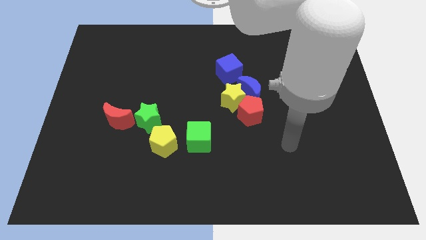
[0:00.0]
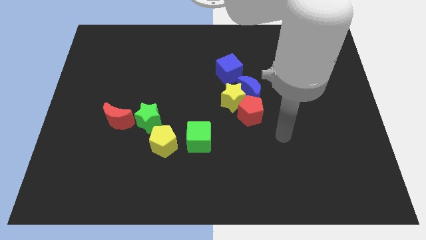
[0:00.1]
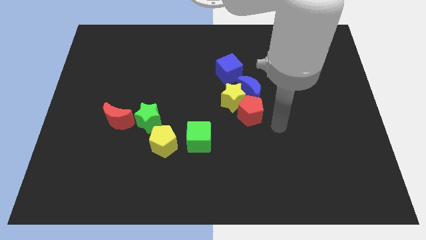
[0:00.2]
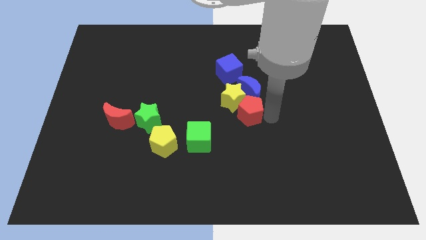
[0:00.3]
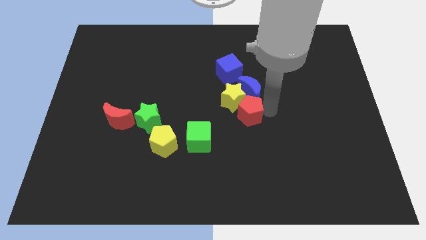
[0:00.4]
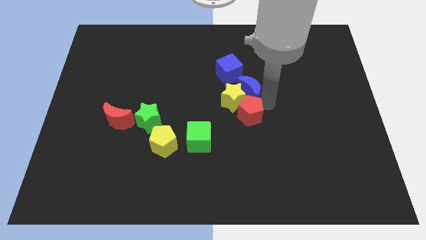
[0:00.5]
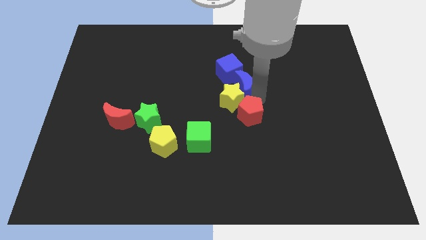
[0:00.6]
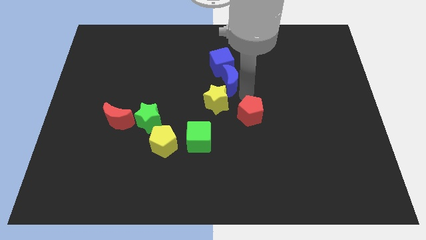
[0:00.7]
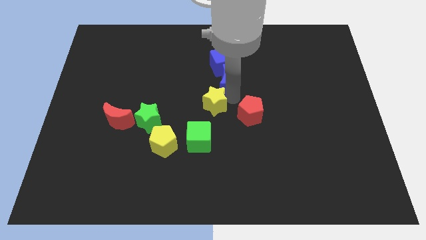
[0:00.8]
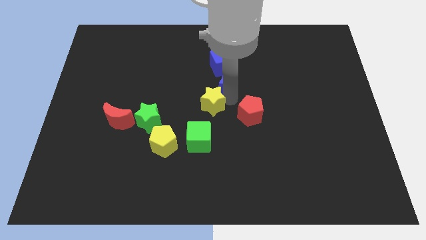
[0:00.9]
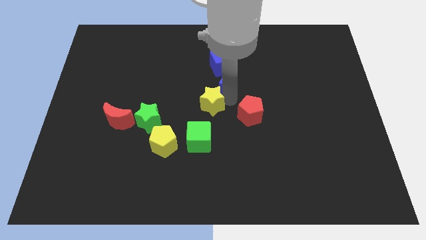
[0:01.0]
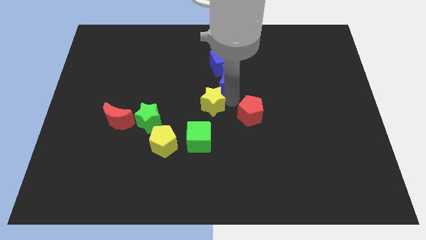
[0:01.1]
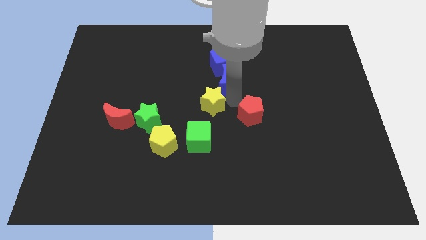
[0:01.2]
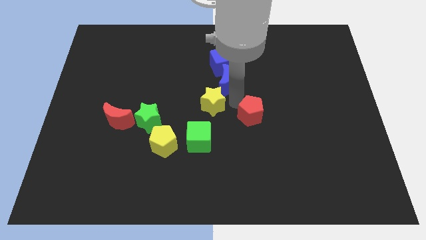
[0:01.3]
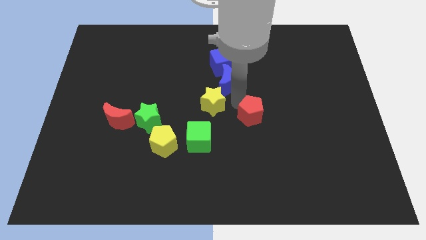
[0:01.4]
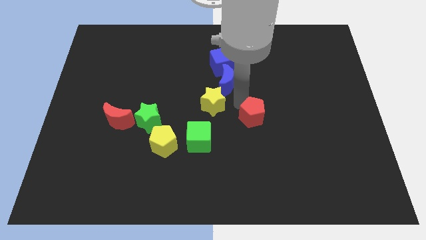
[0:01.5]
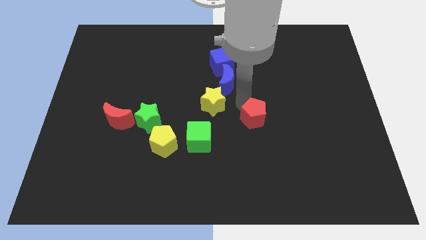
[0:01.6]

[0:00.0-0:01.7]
move the red pentagon away from the yellow star and blue moon

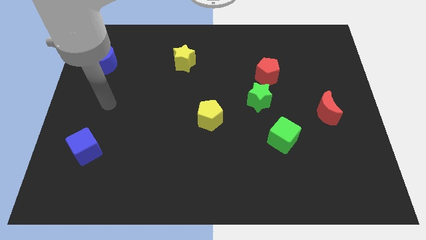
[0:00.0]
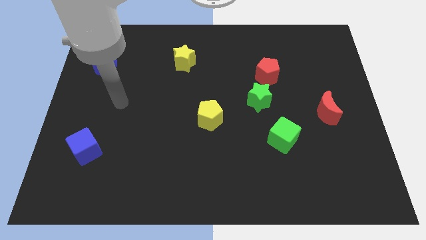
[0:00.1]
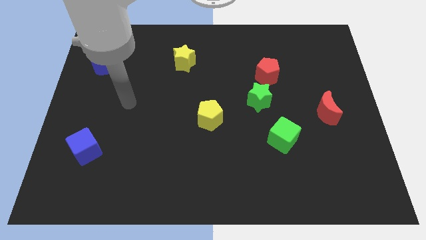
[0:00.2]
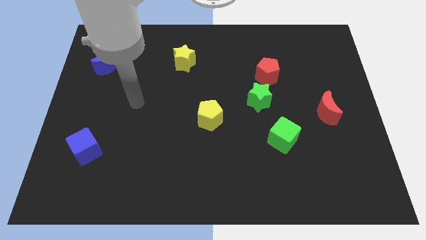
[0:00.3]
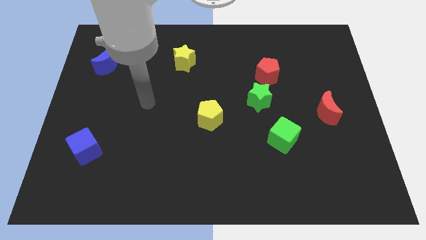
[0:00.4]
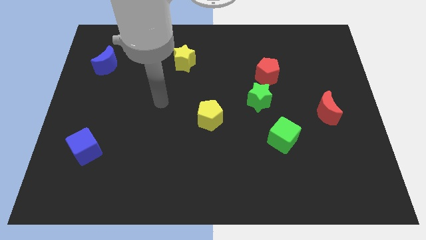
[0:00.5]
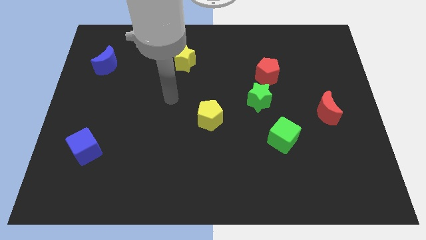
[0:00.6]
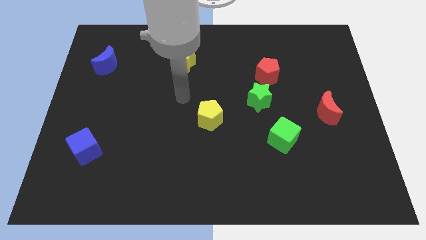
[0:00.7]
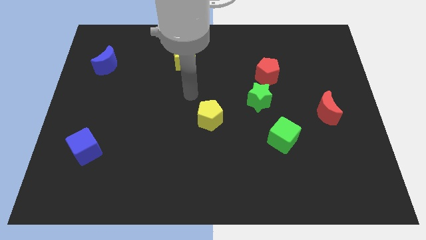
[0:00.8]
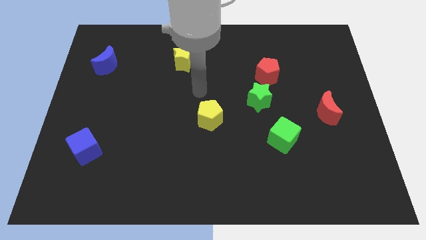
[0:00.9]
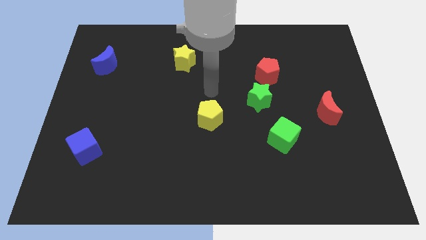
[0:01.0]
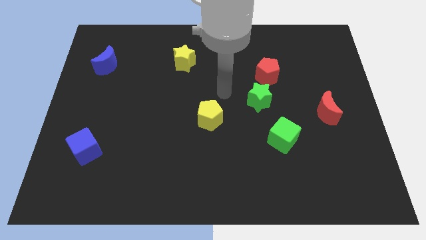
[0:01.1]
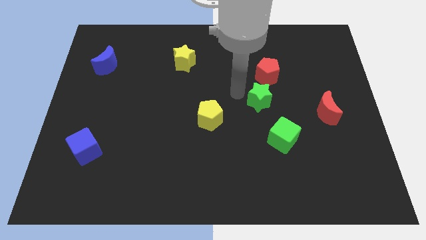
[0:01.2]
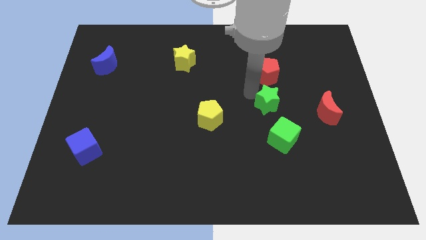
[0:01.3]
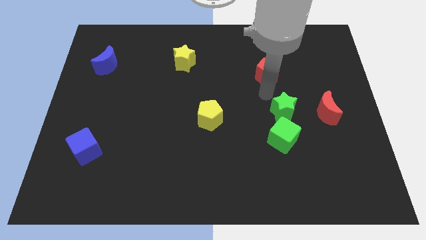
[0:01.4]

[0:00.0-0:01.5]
pull the red pentagon apart from the green star

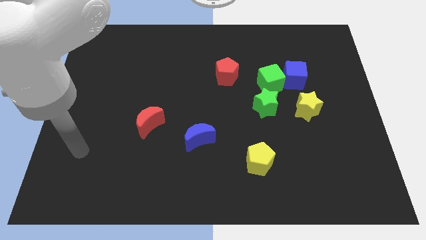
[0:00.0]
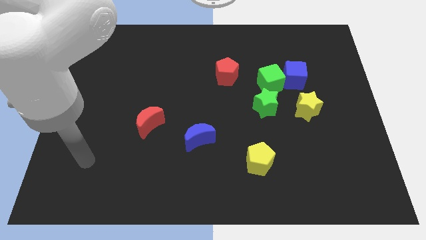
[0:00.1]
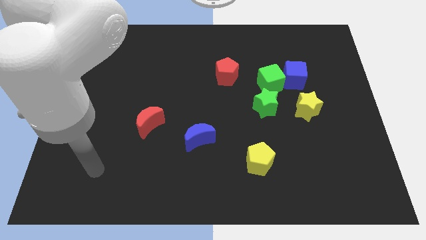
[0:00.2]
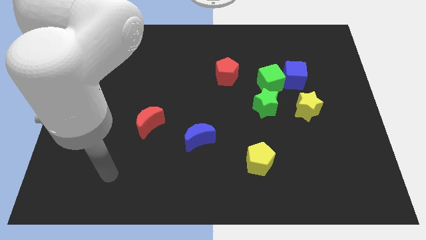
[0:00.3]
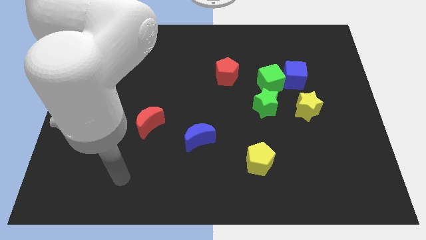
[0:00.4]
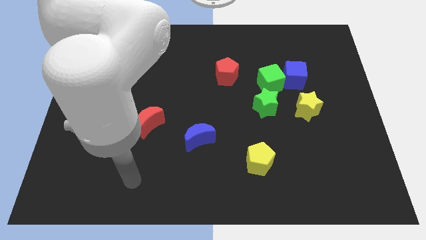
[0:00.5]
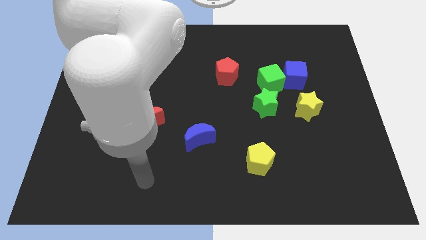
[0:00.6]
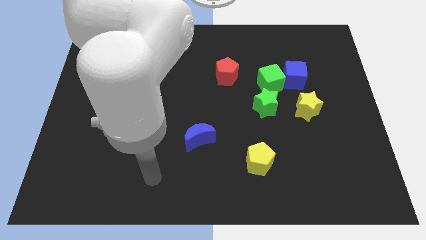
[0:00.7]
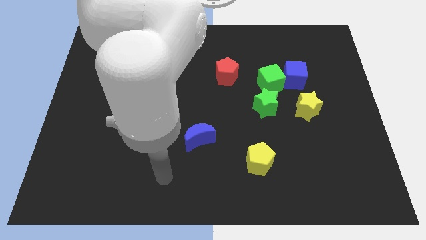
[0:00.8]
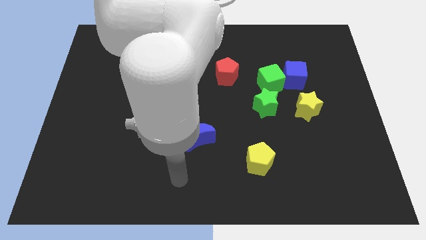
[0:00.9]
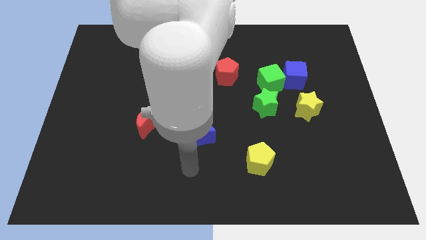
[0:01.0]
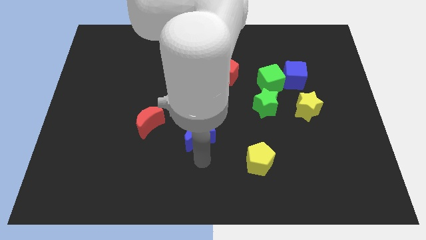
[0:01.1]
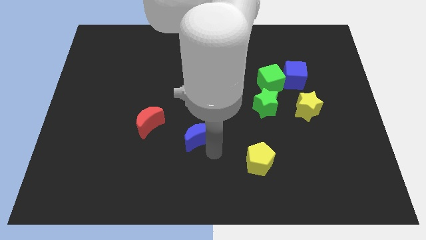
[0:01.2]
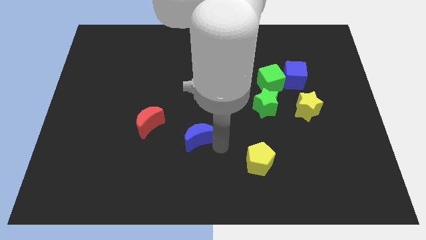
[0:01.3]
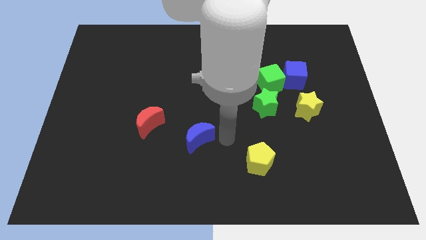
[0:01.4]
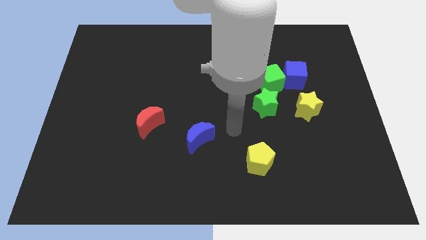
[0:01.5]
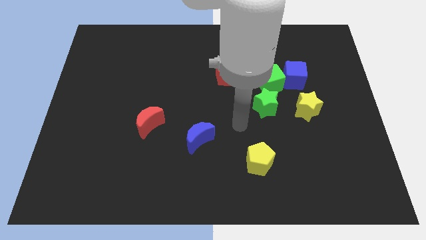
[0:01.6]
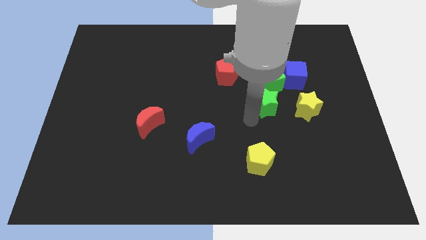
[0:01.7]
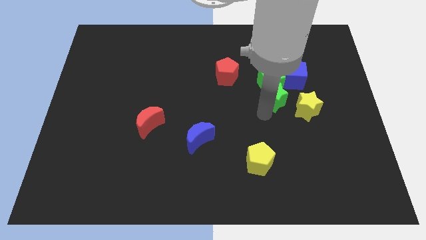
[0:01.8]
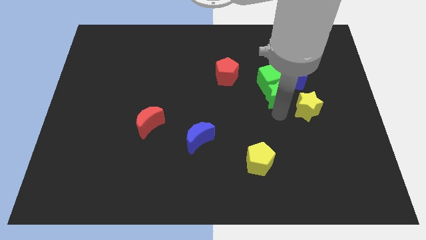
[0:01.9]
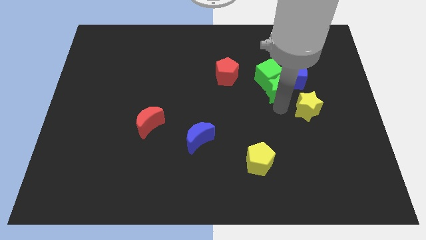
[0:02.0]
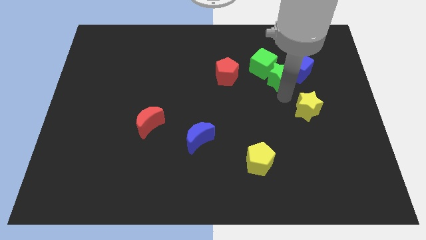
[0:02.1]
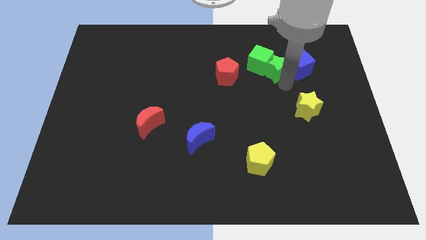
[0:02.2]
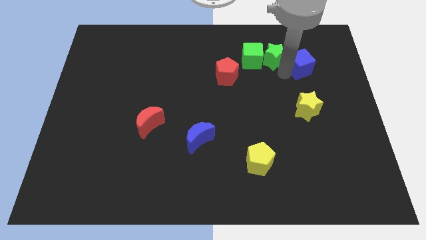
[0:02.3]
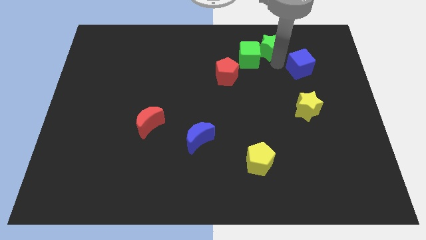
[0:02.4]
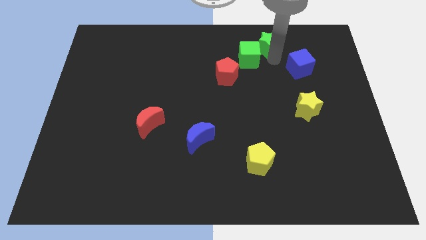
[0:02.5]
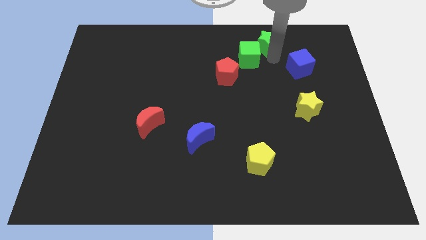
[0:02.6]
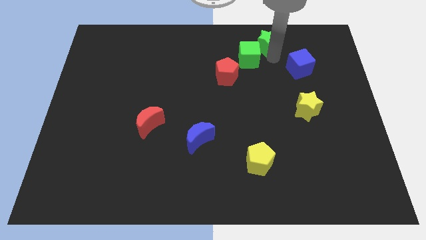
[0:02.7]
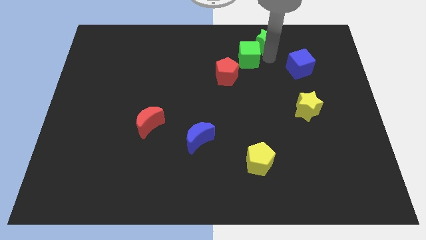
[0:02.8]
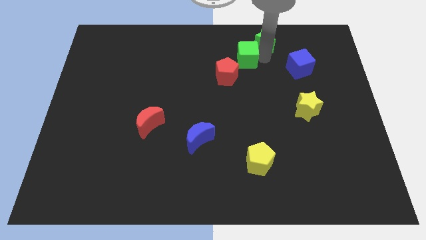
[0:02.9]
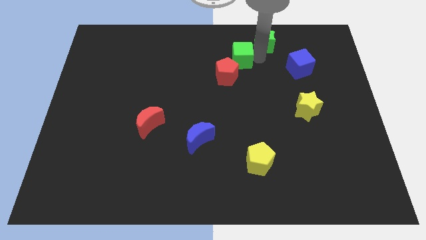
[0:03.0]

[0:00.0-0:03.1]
move the green cube away from the blue cube and green star

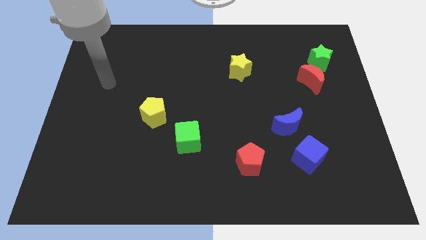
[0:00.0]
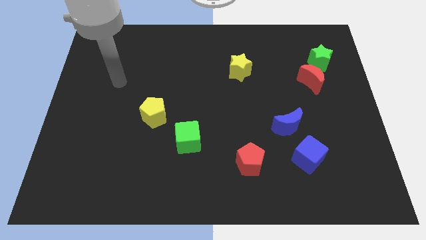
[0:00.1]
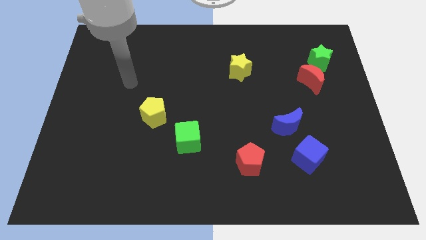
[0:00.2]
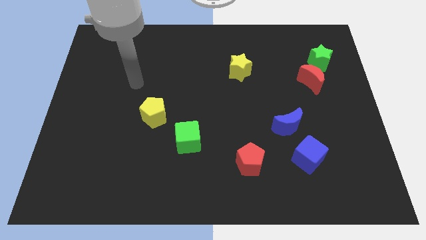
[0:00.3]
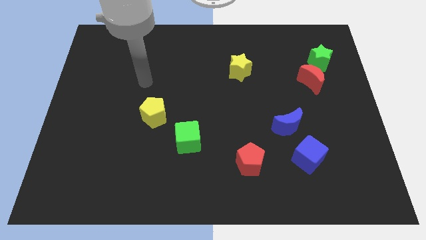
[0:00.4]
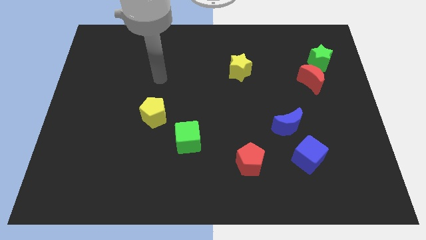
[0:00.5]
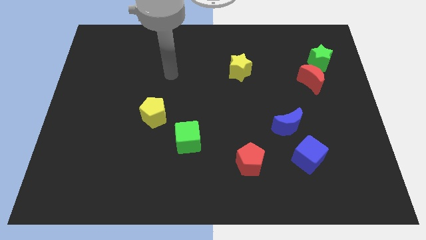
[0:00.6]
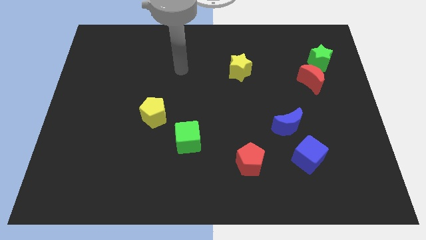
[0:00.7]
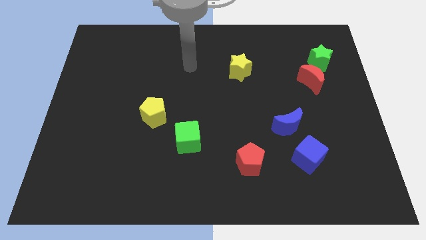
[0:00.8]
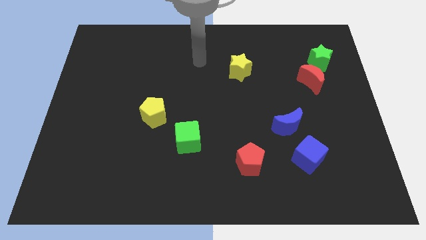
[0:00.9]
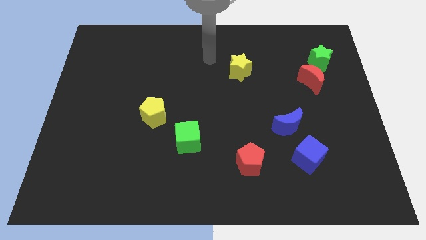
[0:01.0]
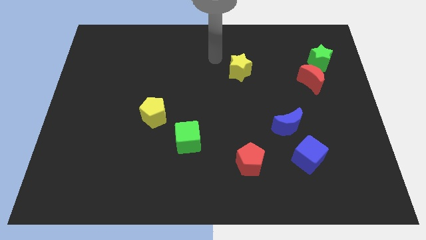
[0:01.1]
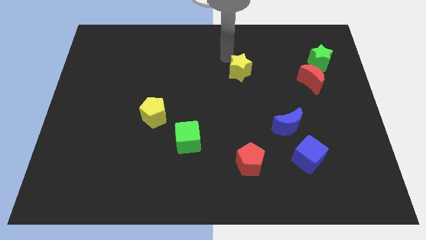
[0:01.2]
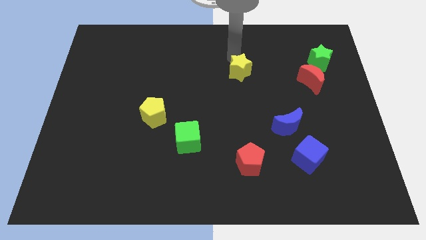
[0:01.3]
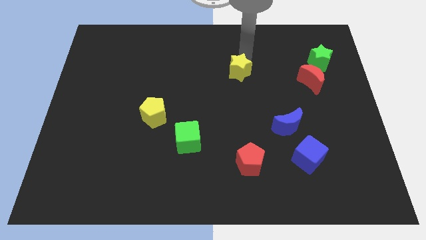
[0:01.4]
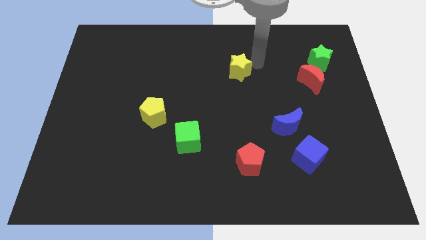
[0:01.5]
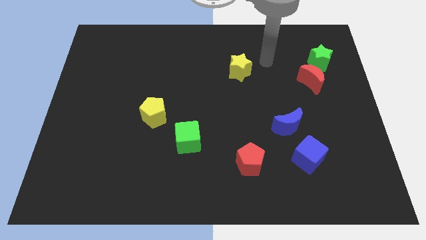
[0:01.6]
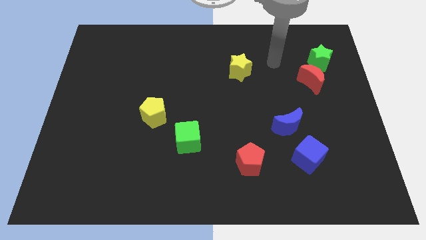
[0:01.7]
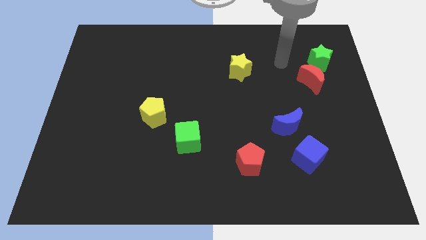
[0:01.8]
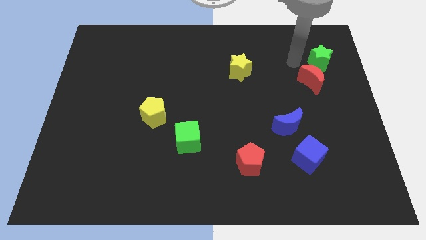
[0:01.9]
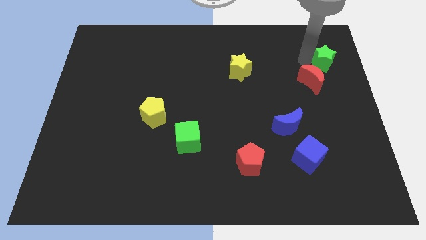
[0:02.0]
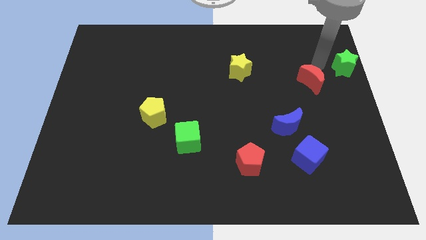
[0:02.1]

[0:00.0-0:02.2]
move the red moon away from the green star

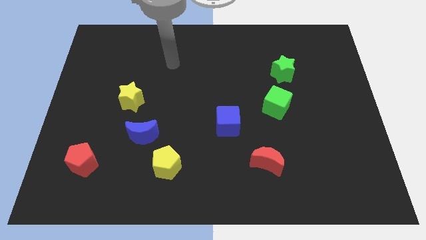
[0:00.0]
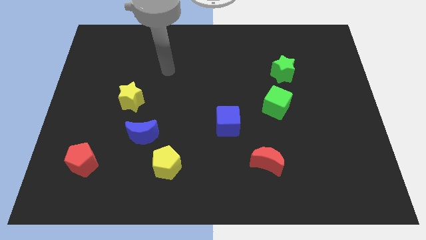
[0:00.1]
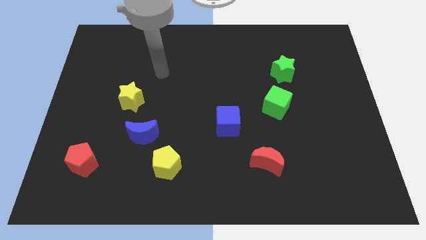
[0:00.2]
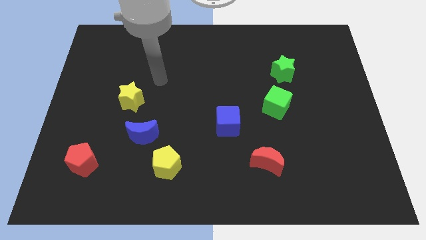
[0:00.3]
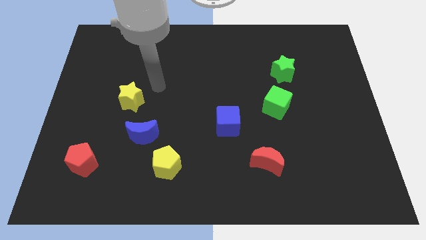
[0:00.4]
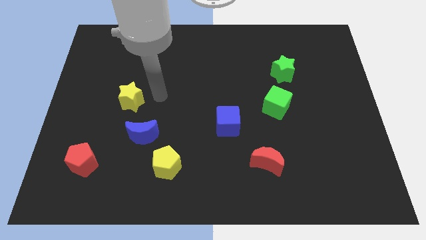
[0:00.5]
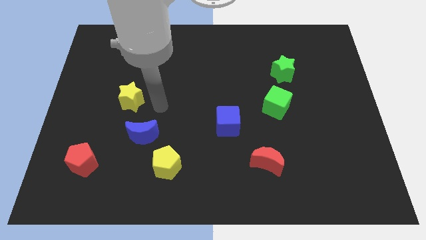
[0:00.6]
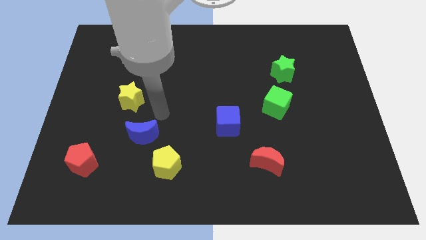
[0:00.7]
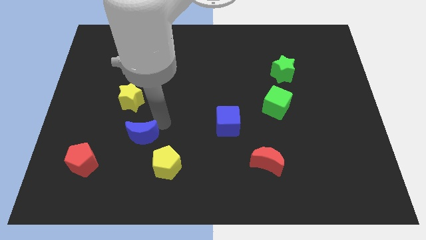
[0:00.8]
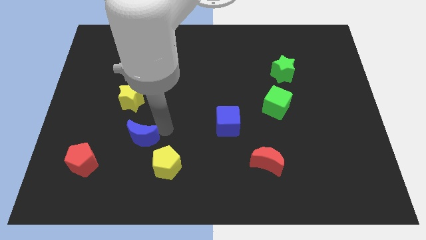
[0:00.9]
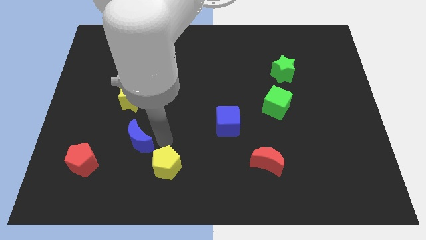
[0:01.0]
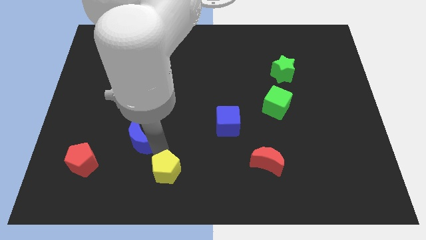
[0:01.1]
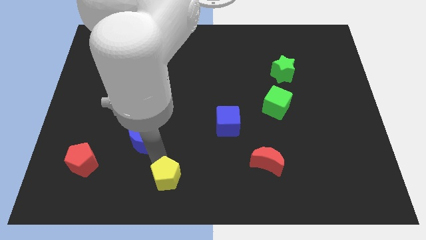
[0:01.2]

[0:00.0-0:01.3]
pull the blue moon apart from the yellow pentagon
